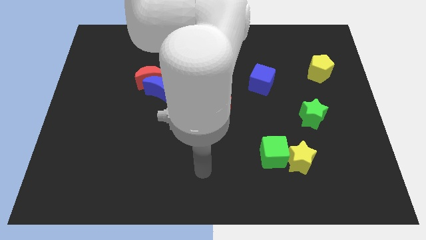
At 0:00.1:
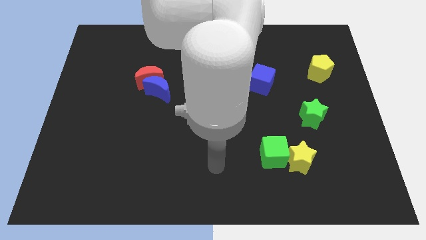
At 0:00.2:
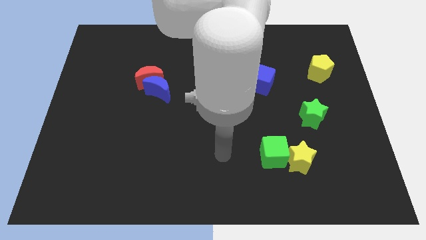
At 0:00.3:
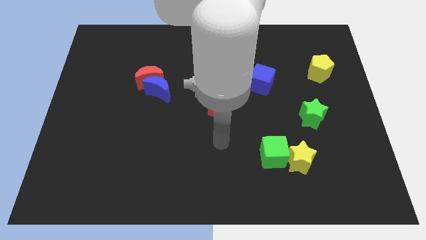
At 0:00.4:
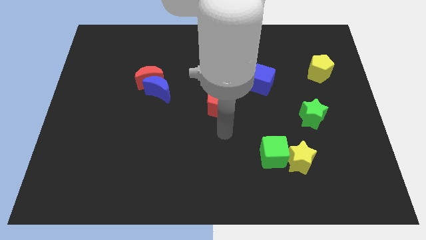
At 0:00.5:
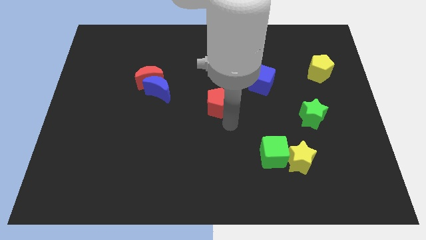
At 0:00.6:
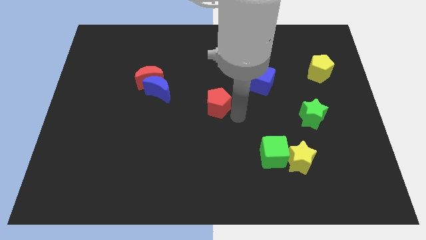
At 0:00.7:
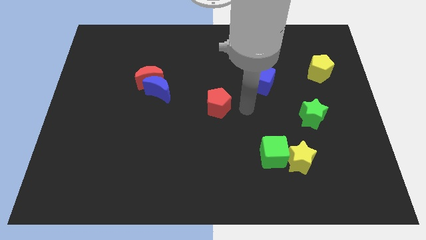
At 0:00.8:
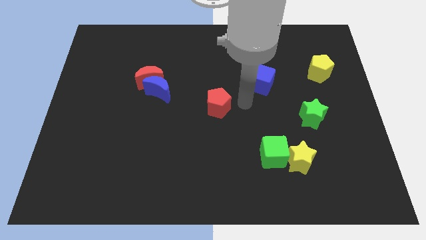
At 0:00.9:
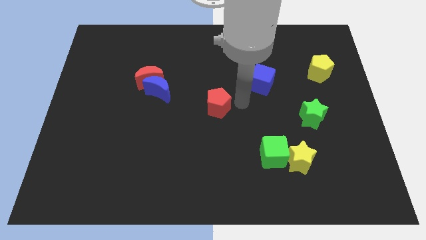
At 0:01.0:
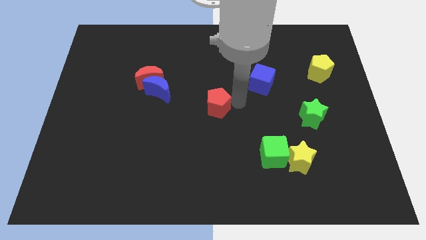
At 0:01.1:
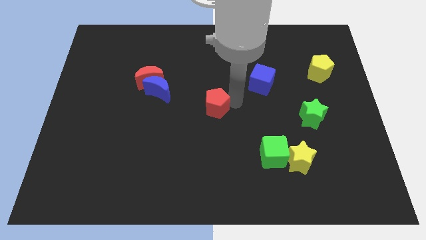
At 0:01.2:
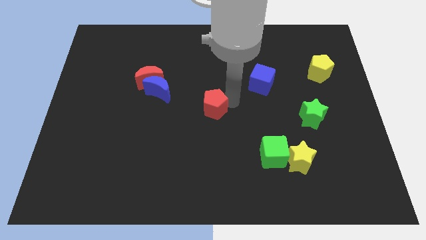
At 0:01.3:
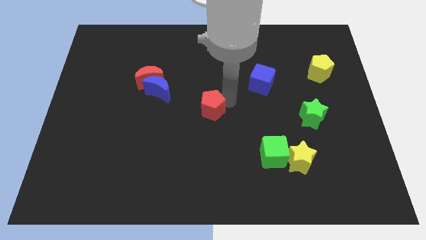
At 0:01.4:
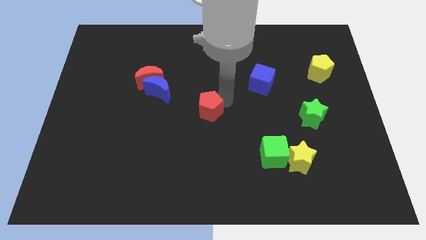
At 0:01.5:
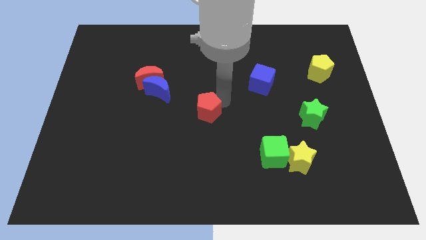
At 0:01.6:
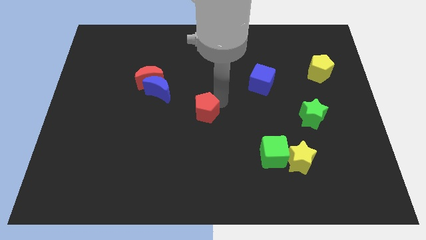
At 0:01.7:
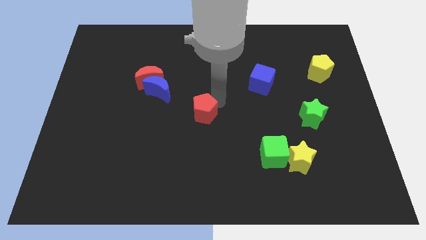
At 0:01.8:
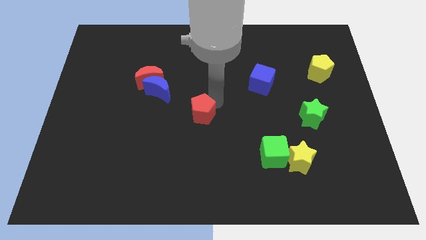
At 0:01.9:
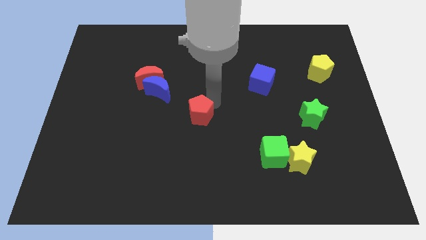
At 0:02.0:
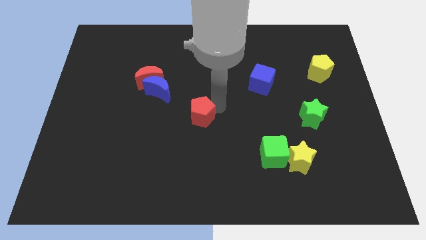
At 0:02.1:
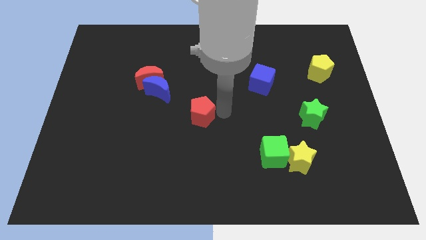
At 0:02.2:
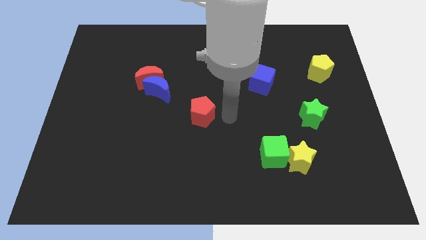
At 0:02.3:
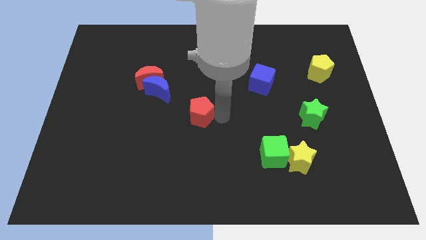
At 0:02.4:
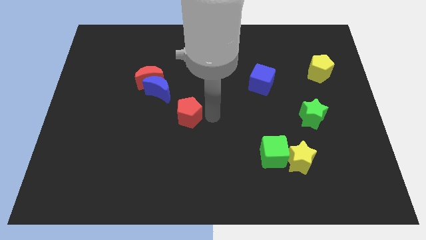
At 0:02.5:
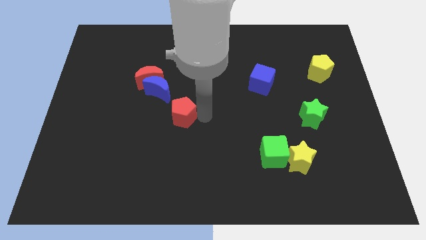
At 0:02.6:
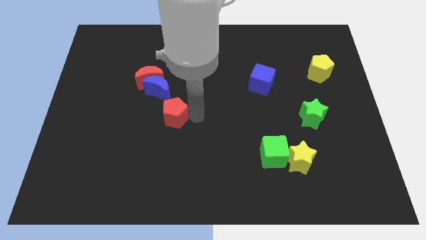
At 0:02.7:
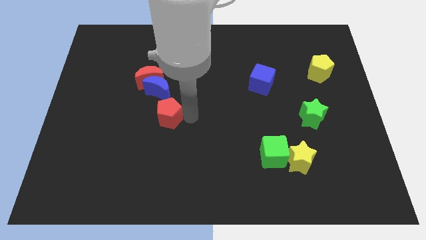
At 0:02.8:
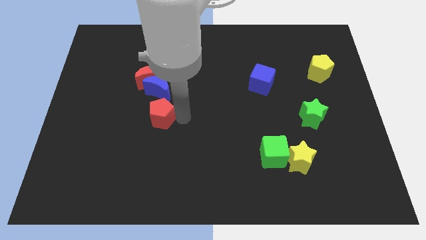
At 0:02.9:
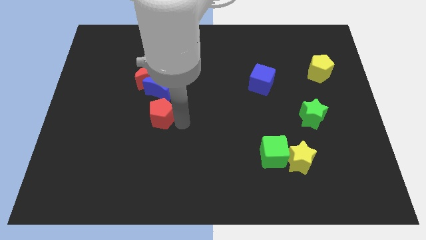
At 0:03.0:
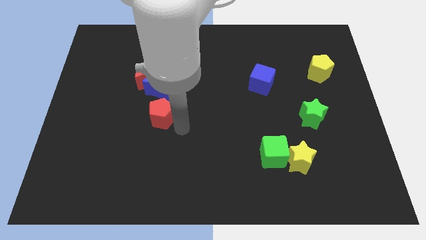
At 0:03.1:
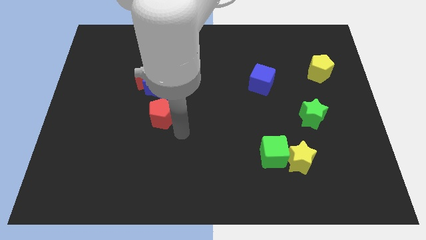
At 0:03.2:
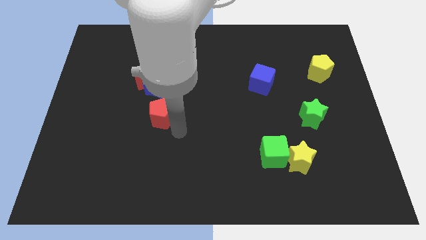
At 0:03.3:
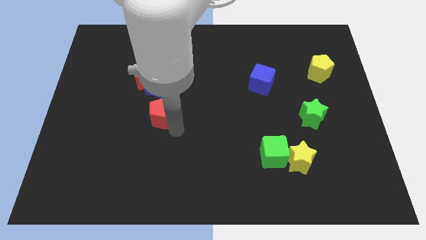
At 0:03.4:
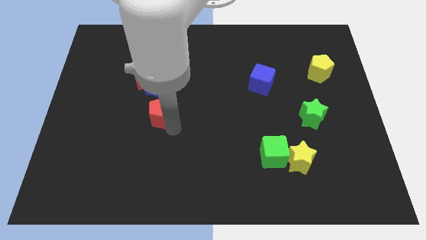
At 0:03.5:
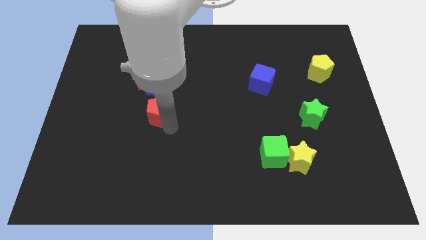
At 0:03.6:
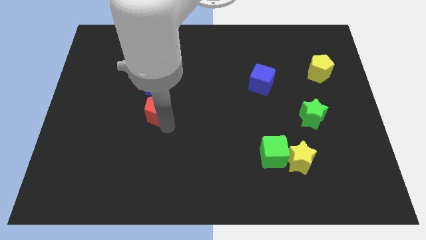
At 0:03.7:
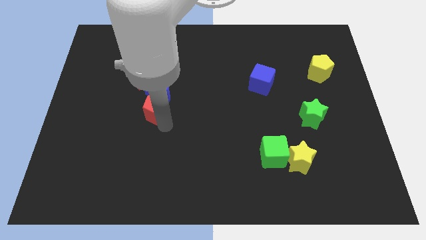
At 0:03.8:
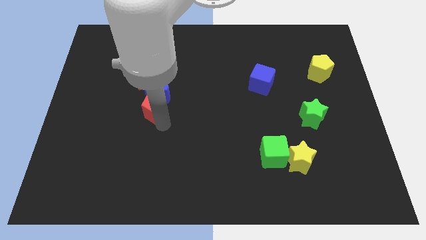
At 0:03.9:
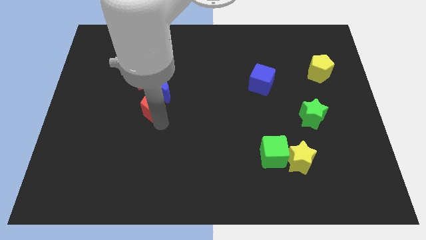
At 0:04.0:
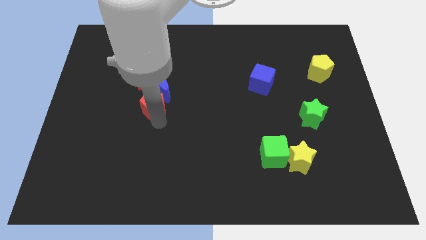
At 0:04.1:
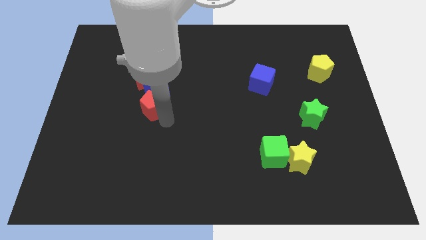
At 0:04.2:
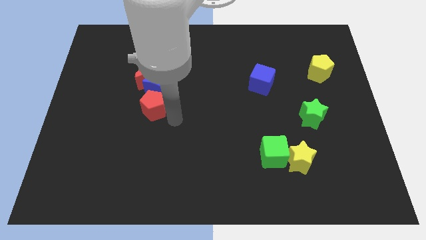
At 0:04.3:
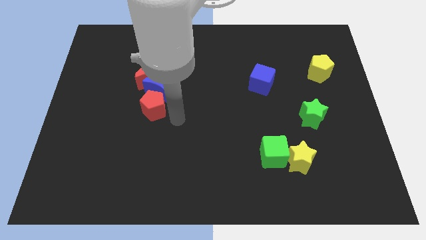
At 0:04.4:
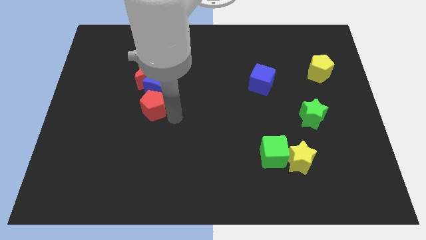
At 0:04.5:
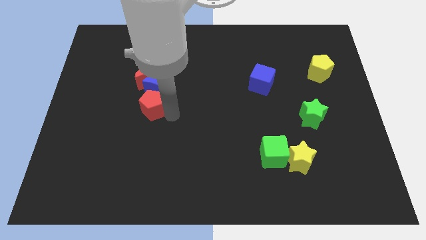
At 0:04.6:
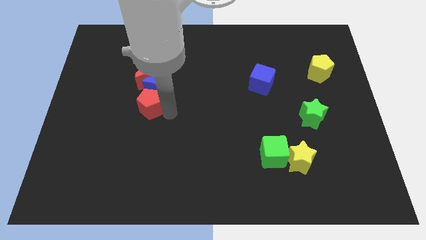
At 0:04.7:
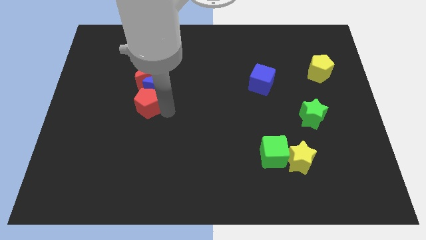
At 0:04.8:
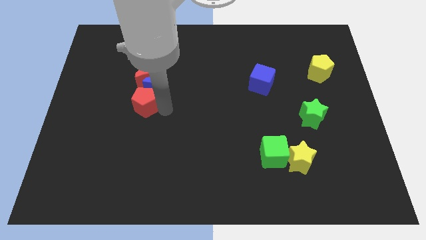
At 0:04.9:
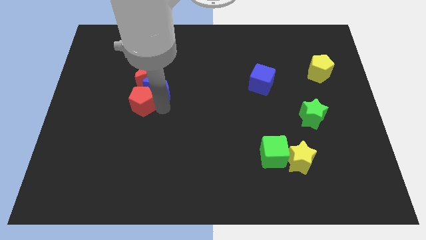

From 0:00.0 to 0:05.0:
move the red pentagon to the bottom left of the red moon

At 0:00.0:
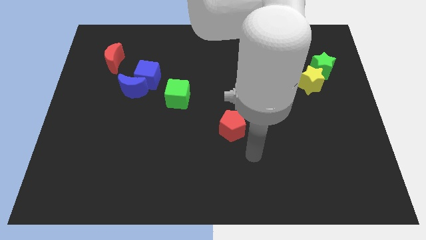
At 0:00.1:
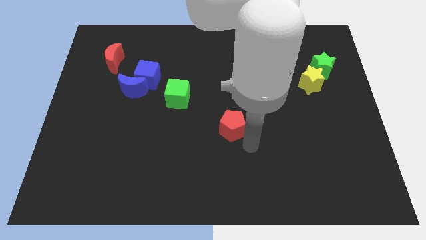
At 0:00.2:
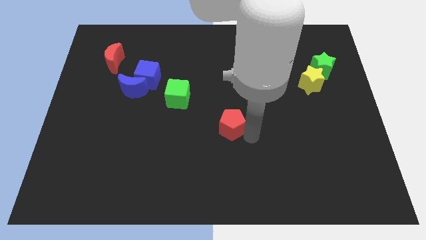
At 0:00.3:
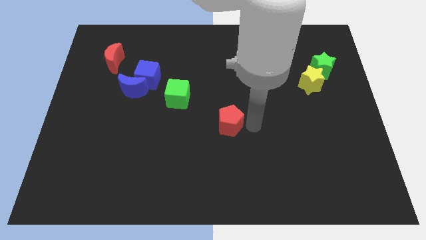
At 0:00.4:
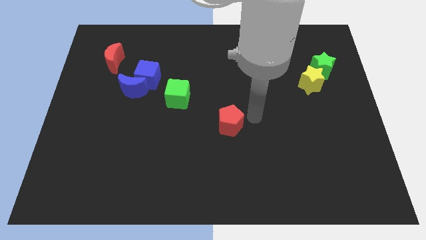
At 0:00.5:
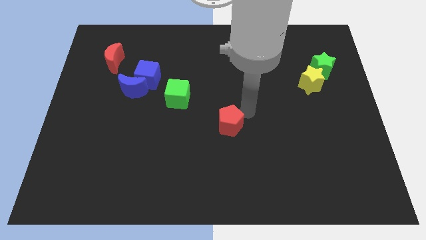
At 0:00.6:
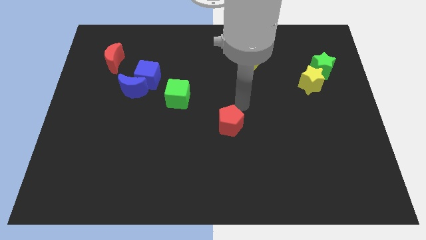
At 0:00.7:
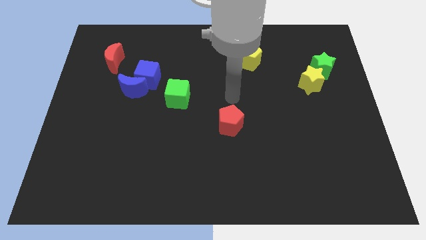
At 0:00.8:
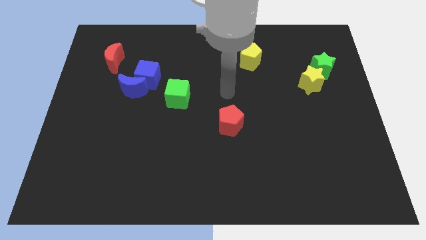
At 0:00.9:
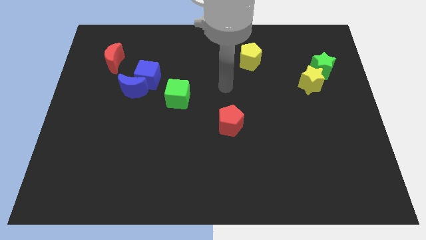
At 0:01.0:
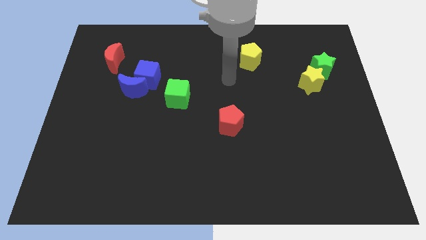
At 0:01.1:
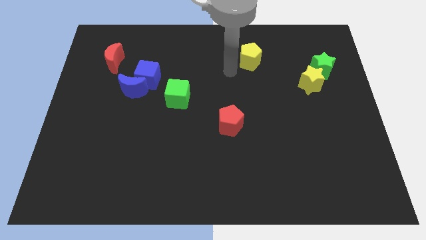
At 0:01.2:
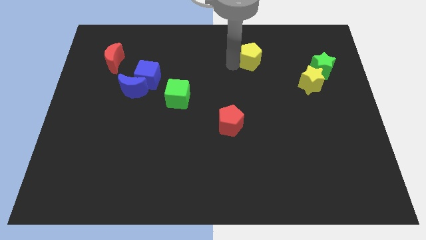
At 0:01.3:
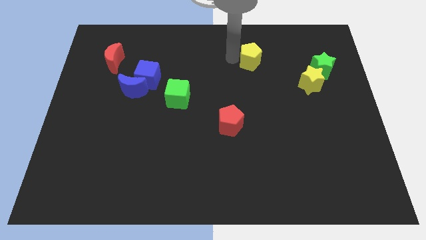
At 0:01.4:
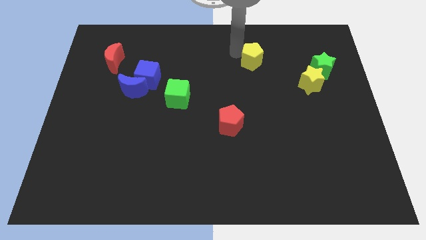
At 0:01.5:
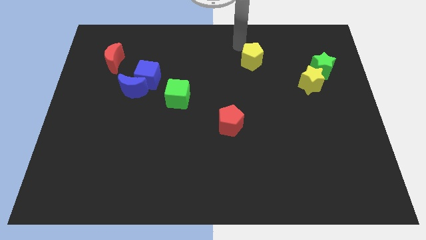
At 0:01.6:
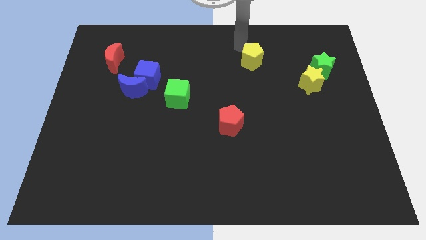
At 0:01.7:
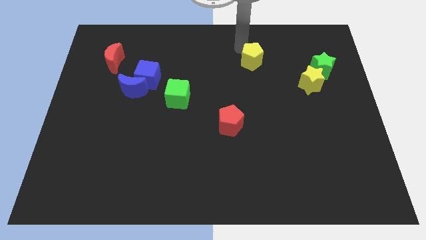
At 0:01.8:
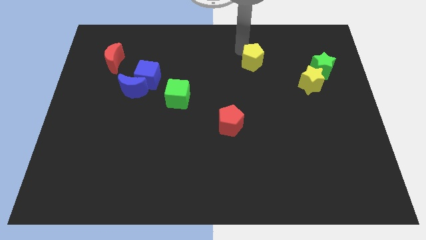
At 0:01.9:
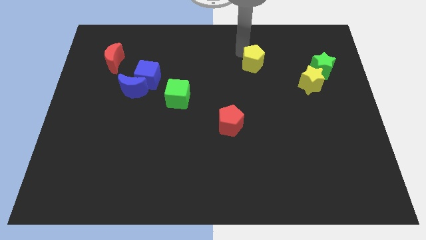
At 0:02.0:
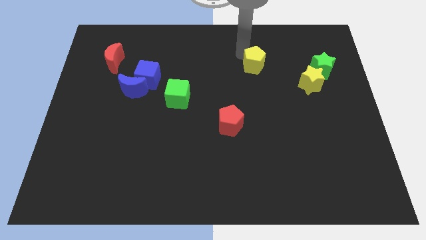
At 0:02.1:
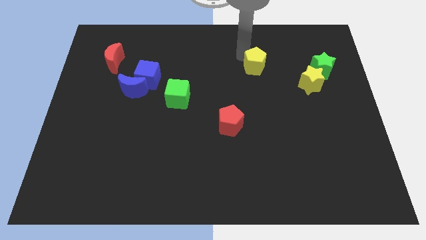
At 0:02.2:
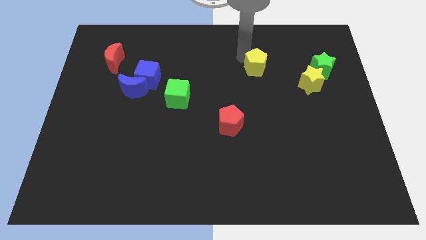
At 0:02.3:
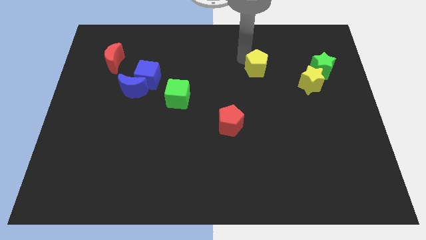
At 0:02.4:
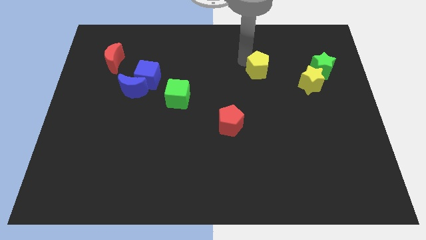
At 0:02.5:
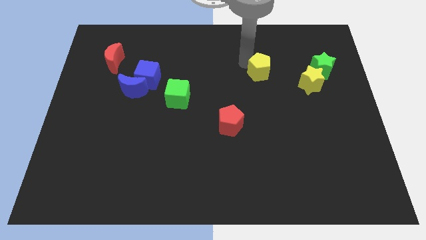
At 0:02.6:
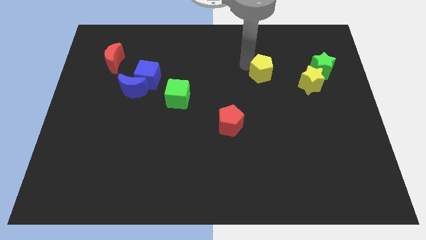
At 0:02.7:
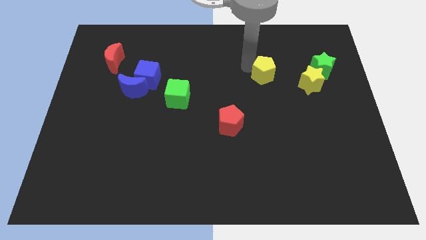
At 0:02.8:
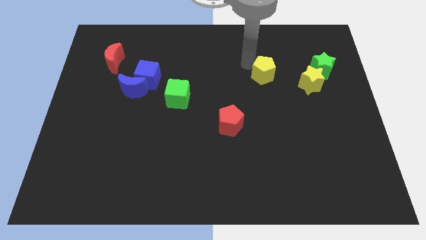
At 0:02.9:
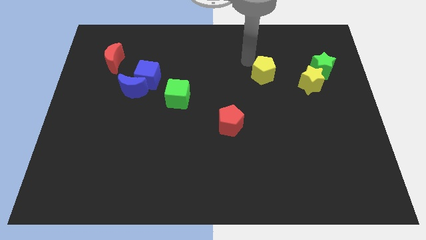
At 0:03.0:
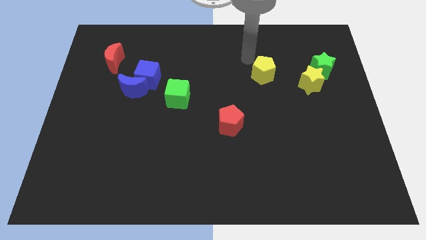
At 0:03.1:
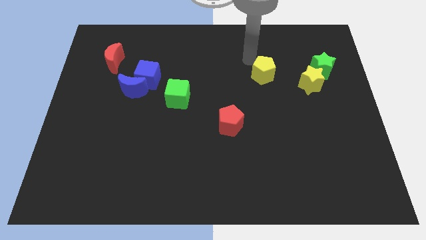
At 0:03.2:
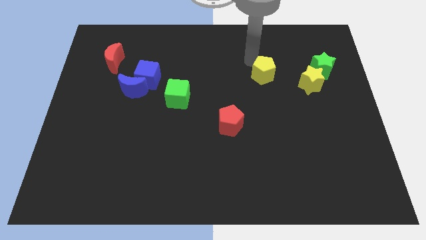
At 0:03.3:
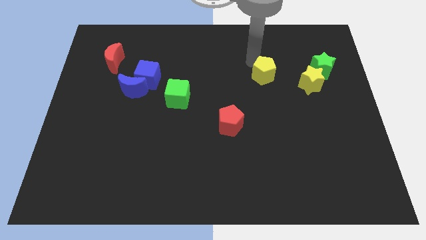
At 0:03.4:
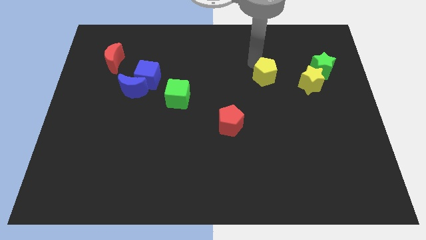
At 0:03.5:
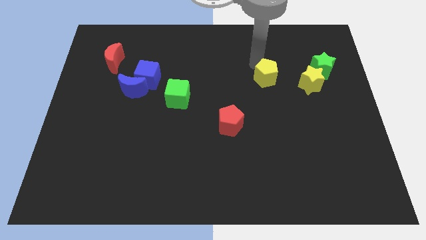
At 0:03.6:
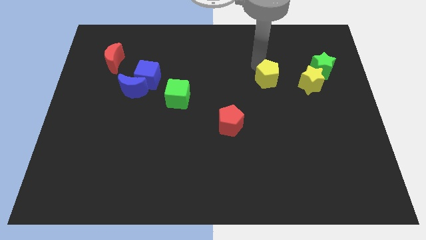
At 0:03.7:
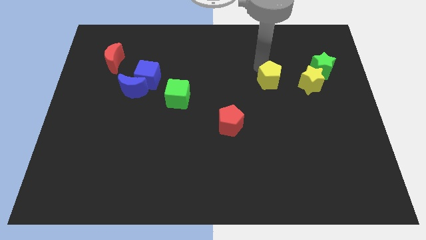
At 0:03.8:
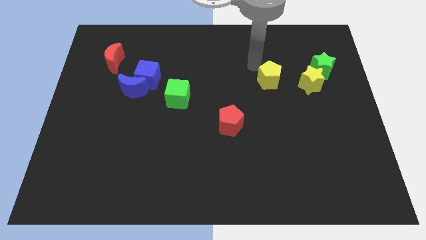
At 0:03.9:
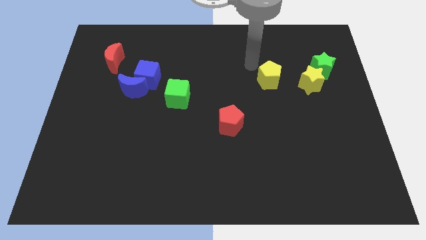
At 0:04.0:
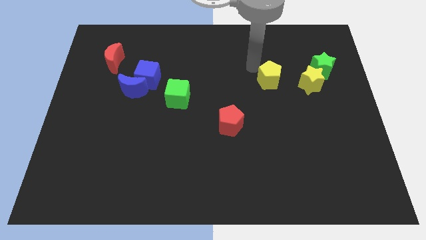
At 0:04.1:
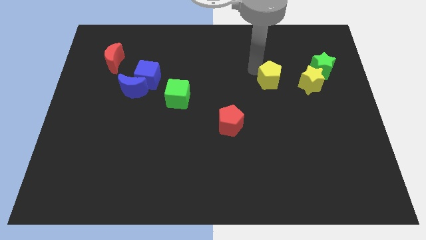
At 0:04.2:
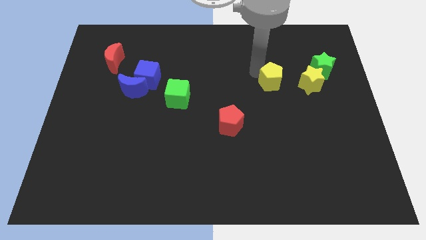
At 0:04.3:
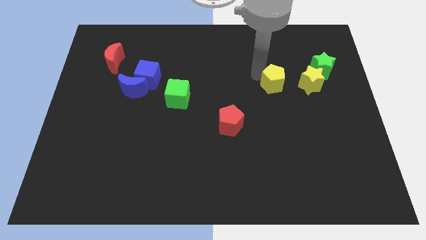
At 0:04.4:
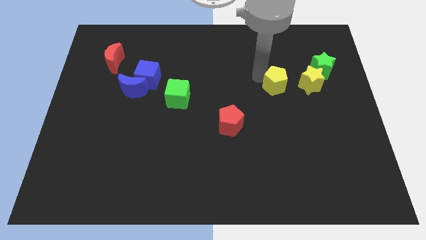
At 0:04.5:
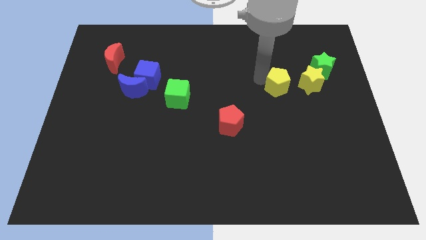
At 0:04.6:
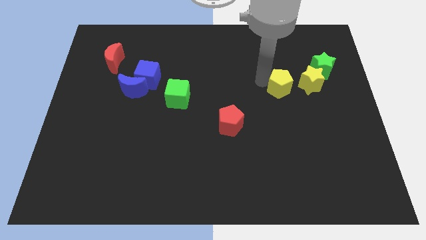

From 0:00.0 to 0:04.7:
move the yellow pentagon diagonally down and to the left of the yellow star
